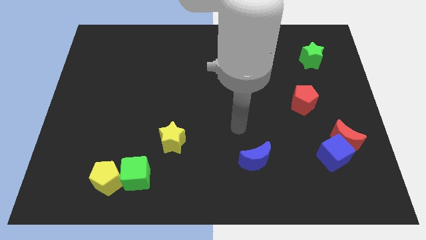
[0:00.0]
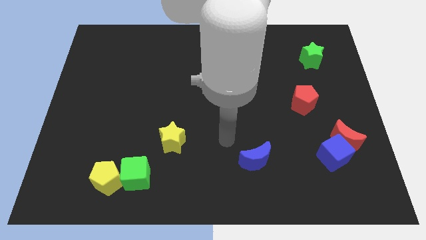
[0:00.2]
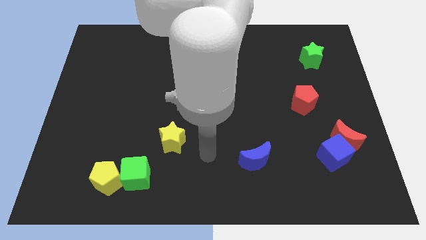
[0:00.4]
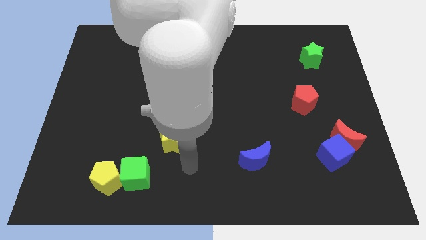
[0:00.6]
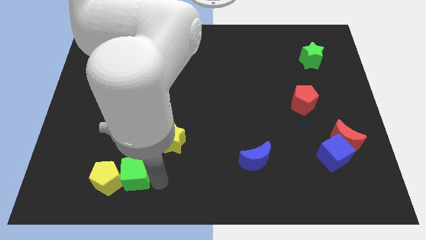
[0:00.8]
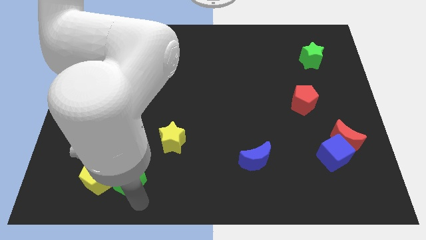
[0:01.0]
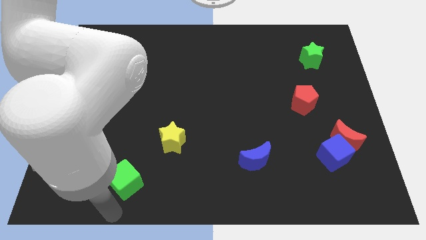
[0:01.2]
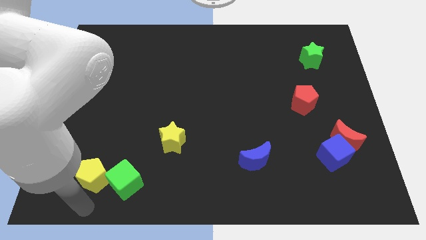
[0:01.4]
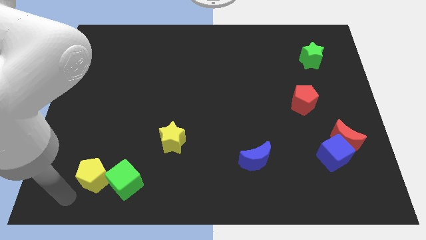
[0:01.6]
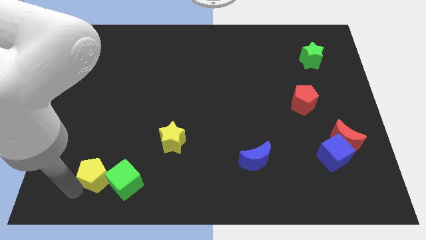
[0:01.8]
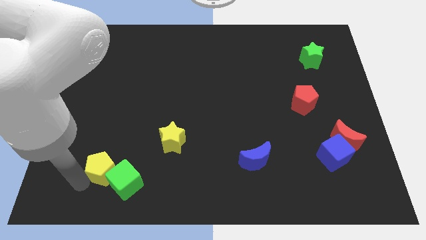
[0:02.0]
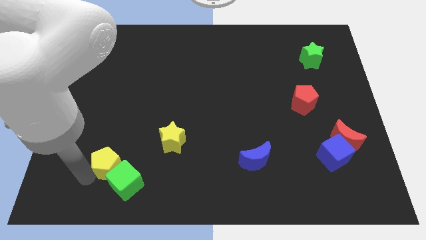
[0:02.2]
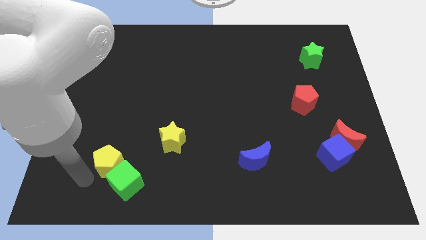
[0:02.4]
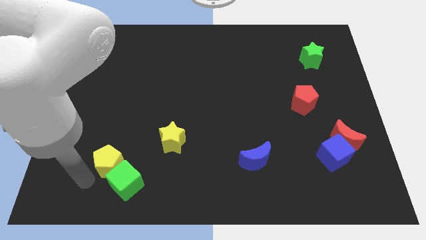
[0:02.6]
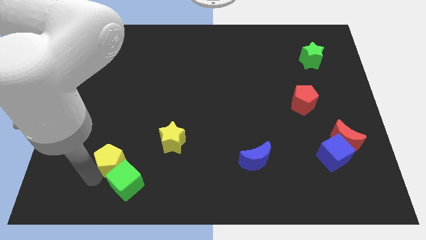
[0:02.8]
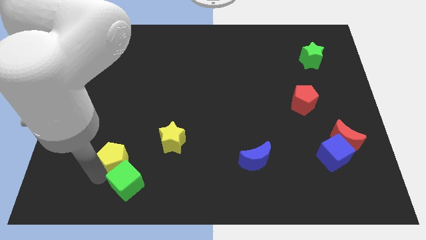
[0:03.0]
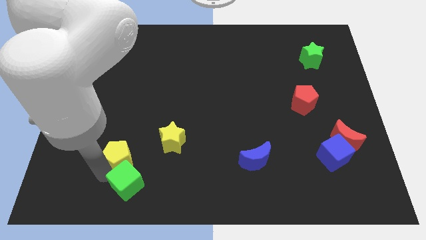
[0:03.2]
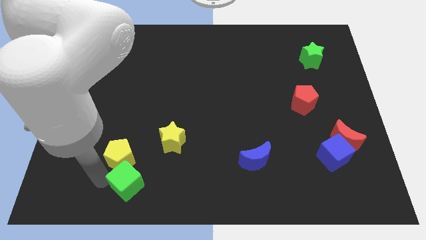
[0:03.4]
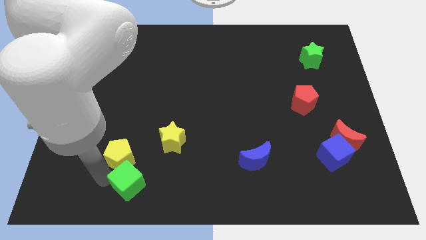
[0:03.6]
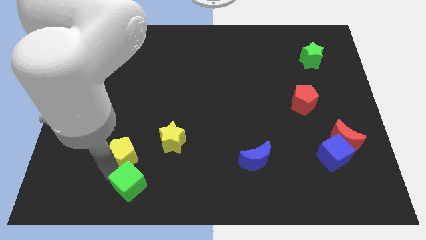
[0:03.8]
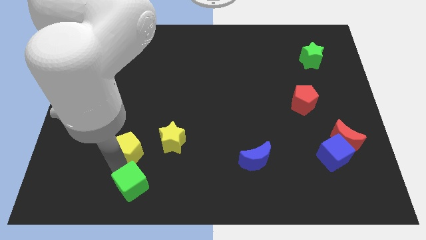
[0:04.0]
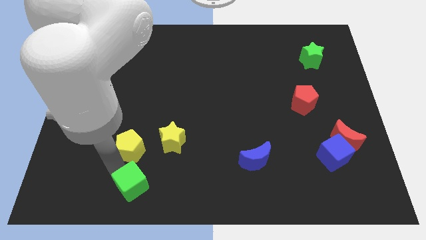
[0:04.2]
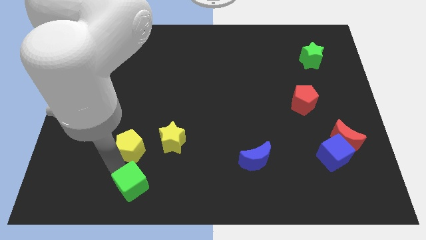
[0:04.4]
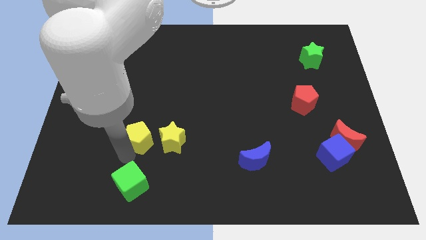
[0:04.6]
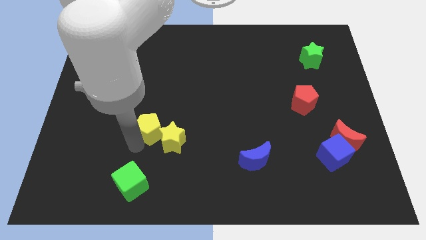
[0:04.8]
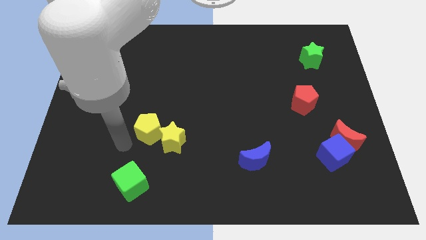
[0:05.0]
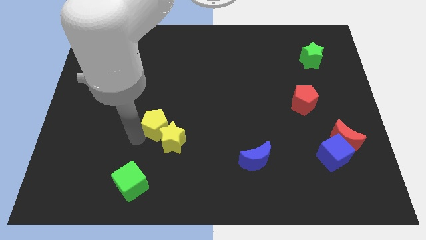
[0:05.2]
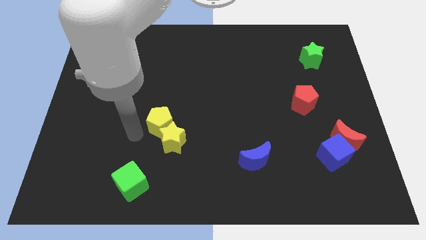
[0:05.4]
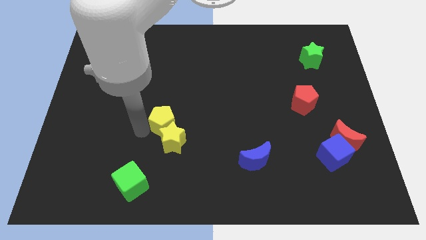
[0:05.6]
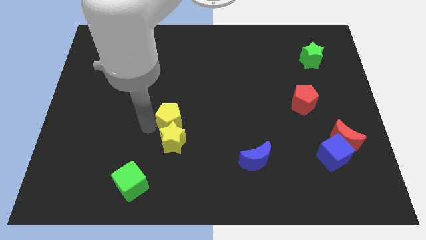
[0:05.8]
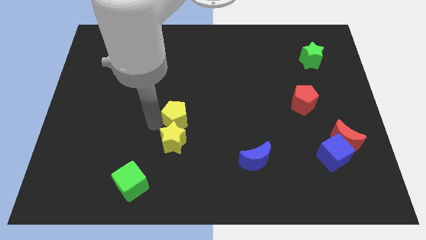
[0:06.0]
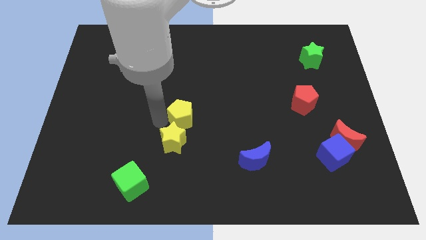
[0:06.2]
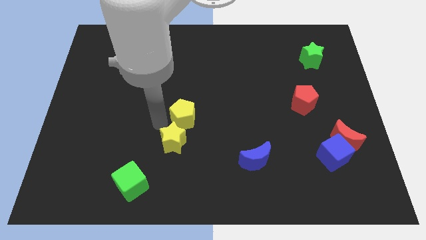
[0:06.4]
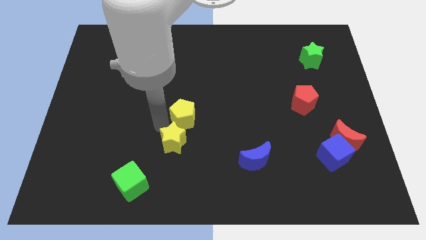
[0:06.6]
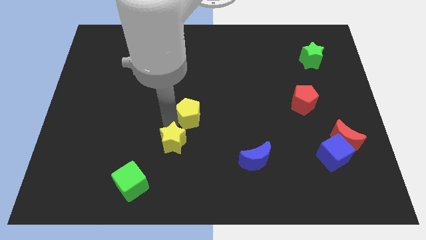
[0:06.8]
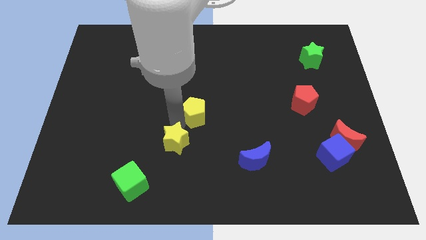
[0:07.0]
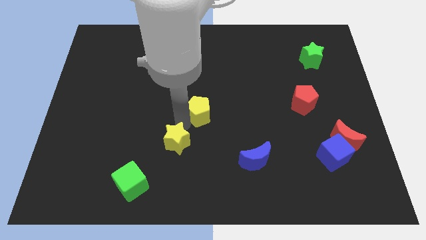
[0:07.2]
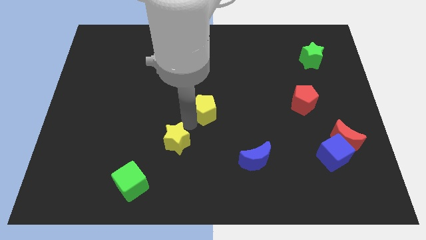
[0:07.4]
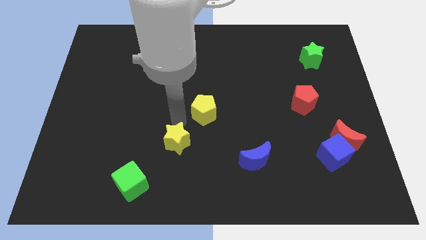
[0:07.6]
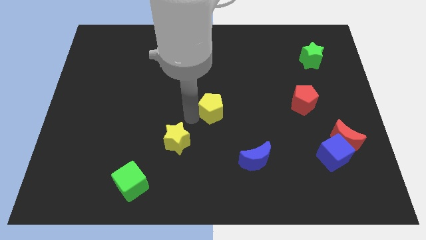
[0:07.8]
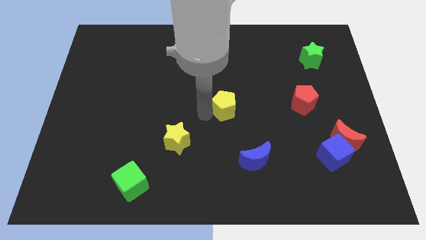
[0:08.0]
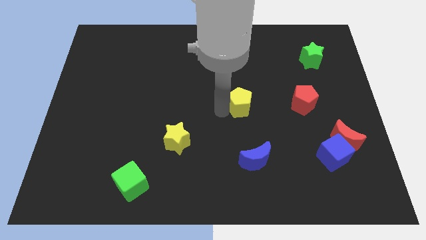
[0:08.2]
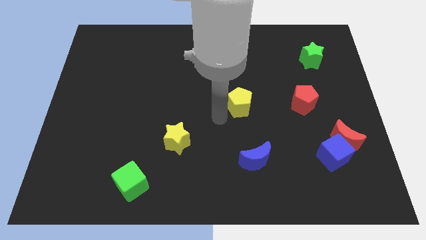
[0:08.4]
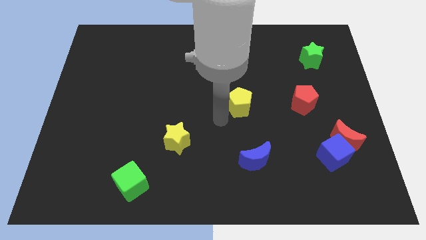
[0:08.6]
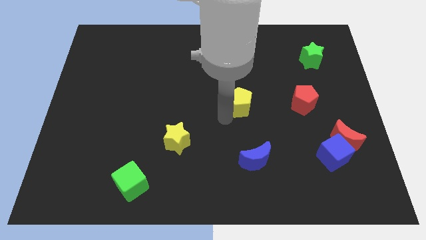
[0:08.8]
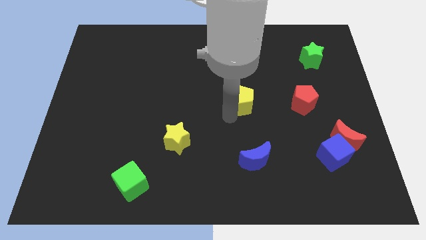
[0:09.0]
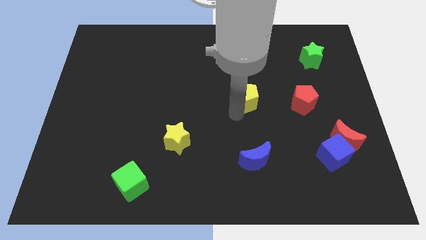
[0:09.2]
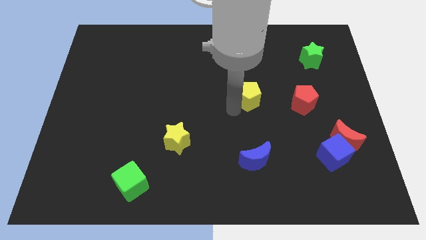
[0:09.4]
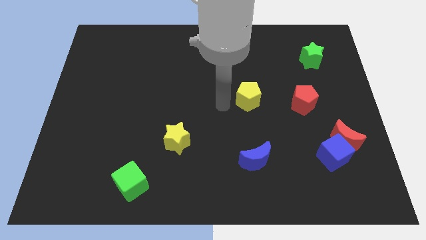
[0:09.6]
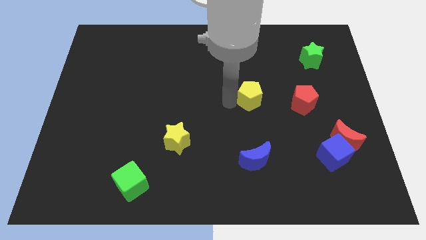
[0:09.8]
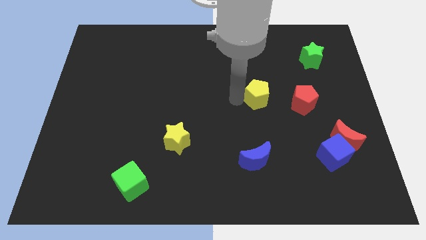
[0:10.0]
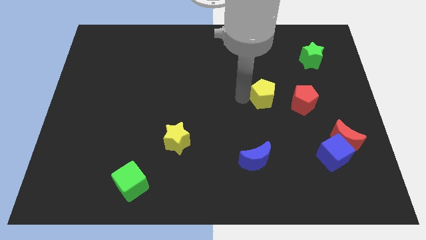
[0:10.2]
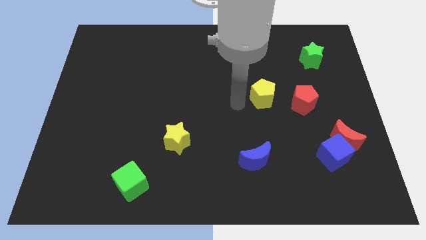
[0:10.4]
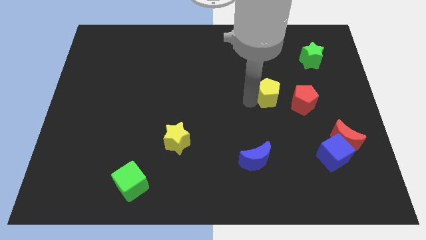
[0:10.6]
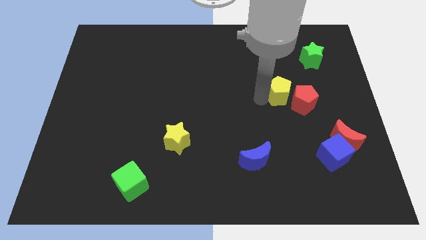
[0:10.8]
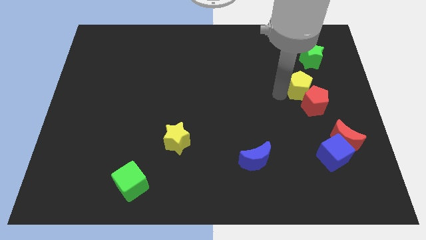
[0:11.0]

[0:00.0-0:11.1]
put the yellow pentagon below the green star

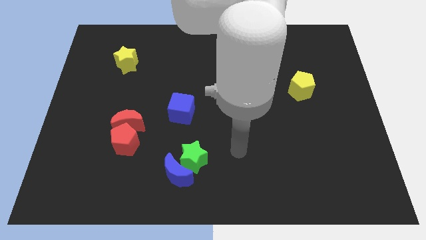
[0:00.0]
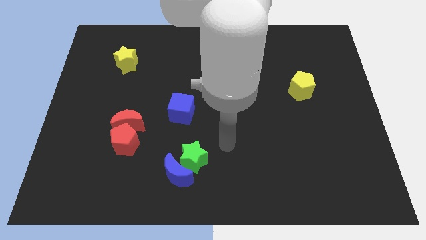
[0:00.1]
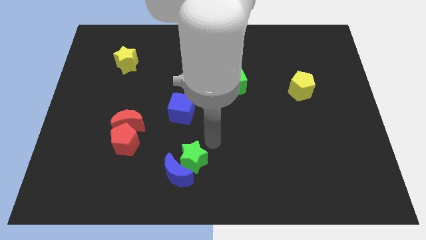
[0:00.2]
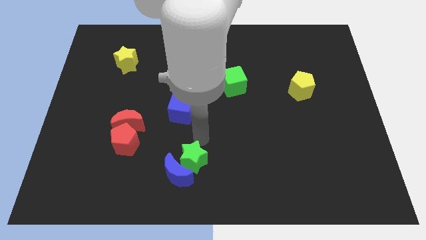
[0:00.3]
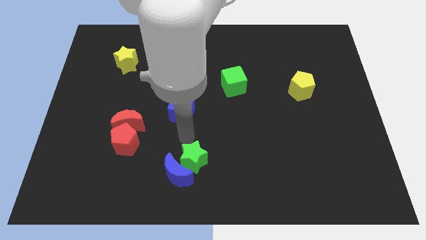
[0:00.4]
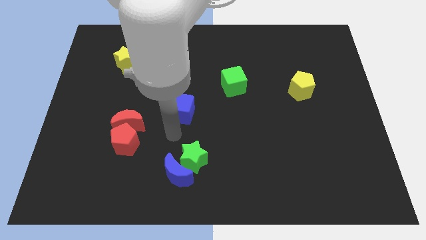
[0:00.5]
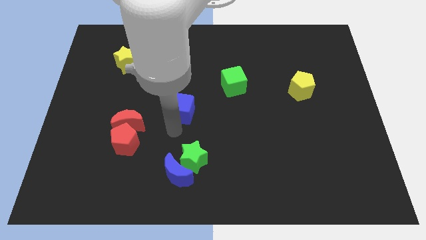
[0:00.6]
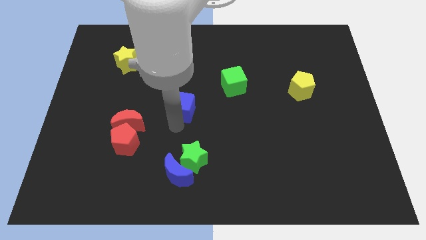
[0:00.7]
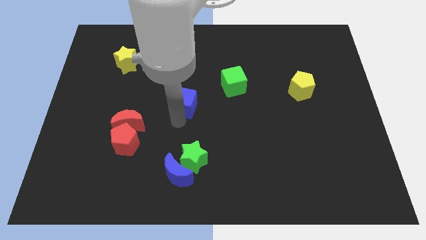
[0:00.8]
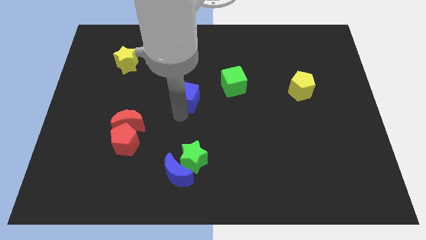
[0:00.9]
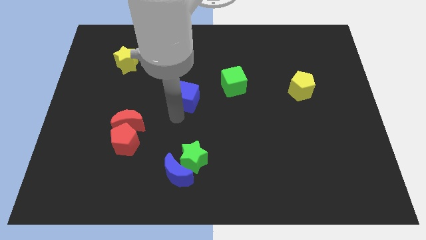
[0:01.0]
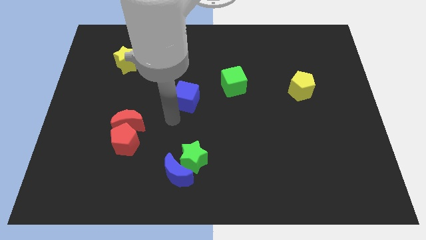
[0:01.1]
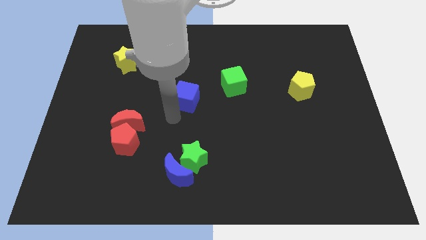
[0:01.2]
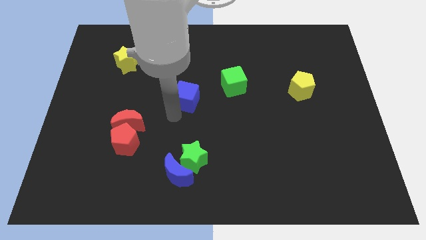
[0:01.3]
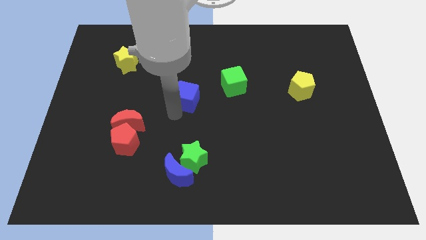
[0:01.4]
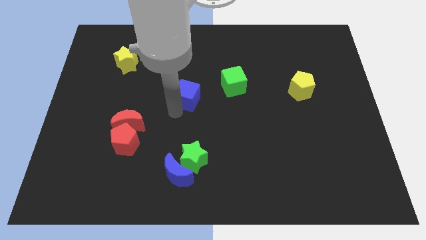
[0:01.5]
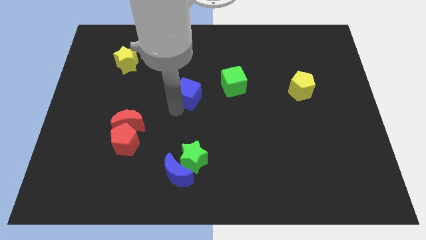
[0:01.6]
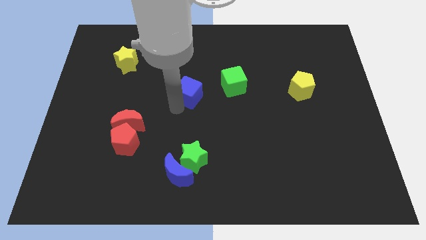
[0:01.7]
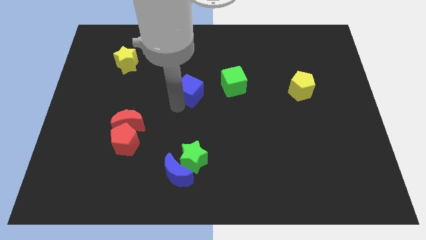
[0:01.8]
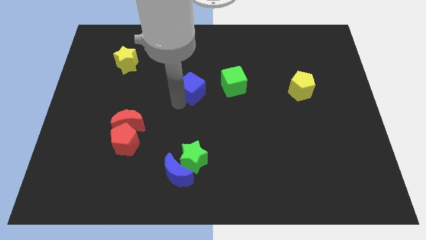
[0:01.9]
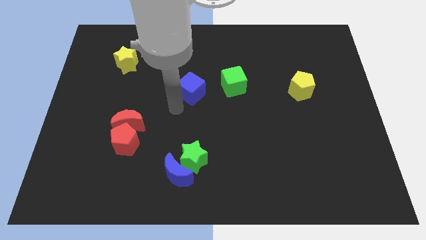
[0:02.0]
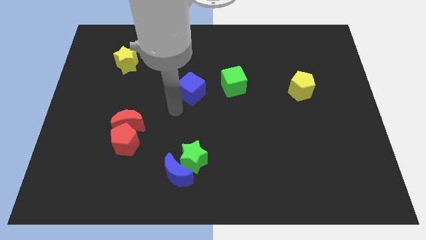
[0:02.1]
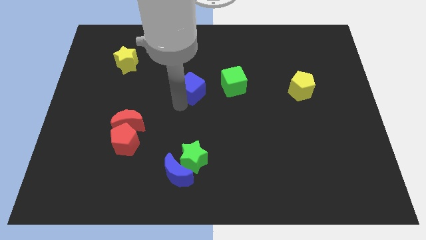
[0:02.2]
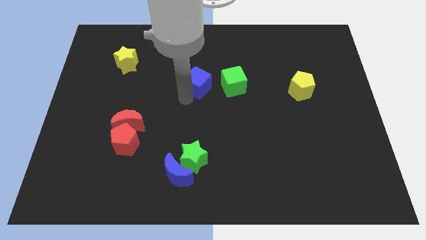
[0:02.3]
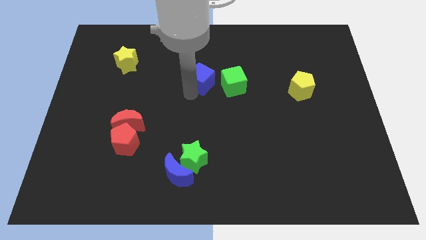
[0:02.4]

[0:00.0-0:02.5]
slide the blue cube diagonally up and to the left of the green cube
